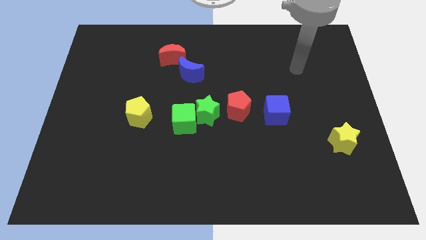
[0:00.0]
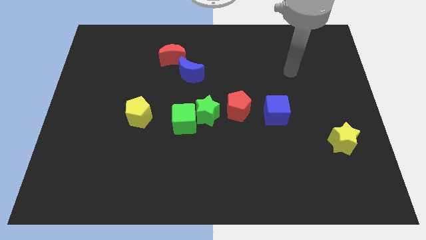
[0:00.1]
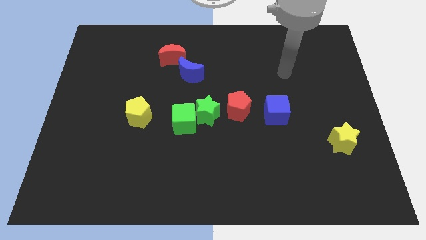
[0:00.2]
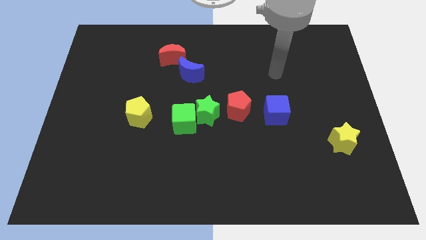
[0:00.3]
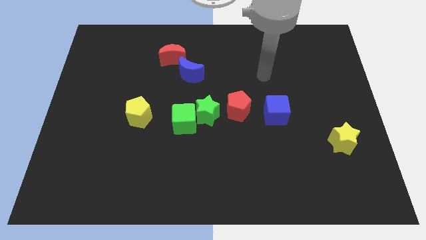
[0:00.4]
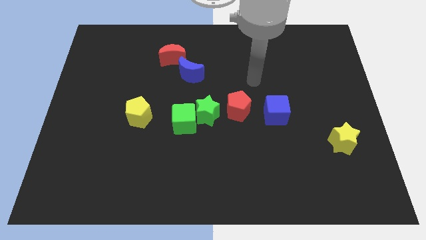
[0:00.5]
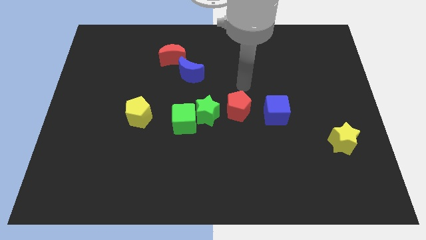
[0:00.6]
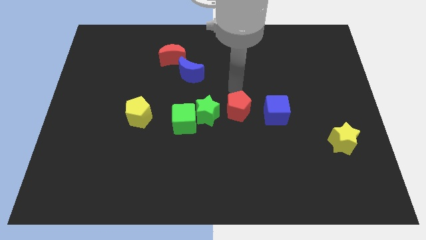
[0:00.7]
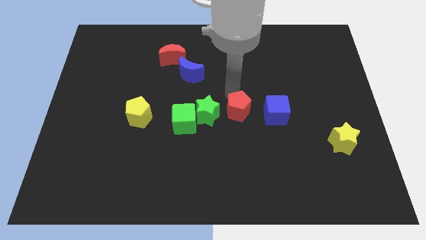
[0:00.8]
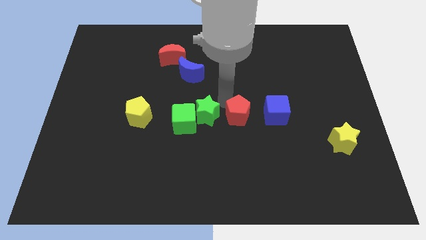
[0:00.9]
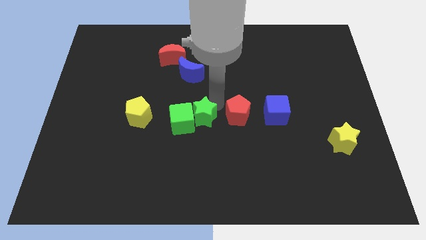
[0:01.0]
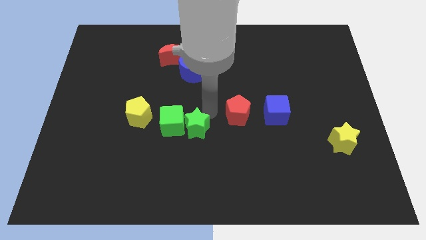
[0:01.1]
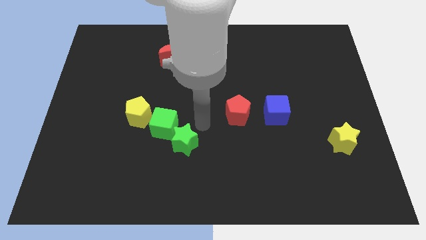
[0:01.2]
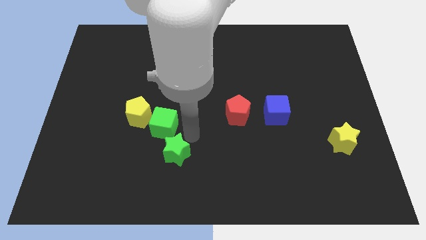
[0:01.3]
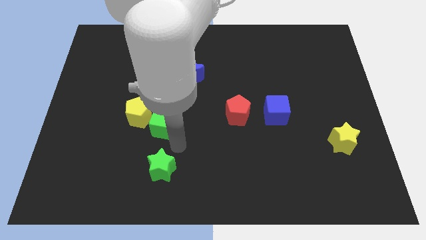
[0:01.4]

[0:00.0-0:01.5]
separate the green cube from the green star

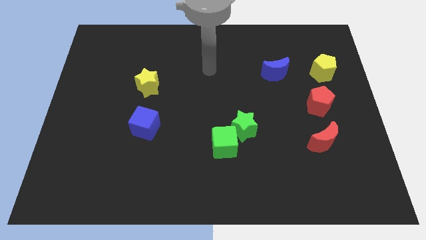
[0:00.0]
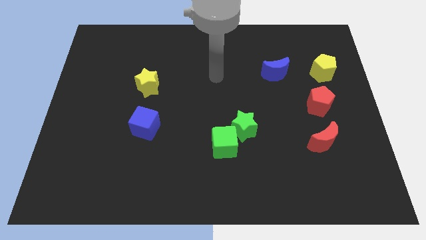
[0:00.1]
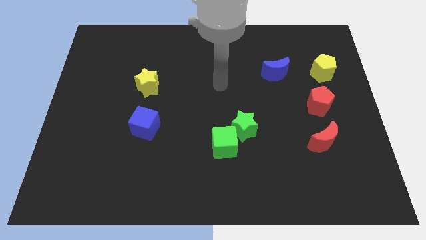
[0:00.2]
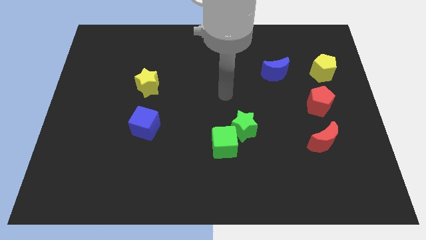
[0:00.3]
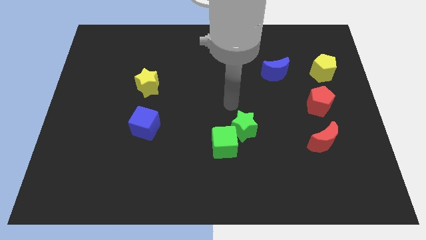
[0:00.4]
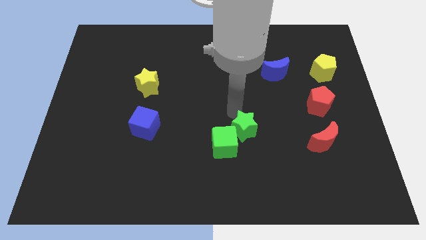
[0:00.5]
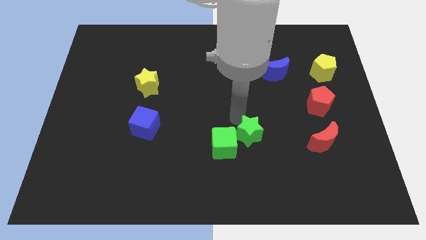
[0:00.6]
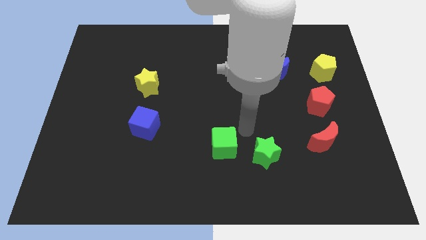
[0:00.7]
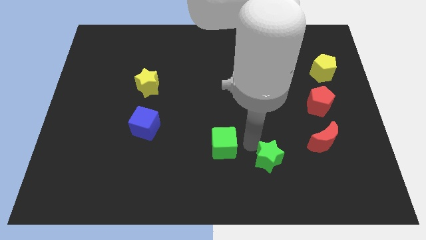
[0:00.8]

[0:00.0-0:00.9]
pull the green cube apart from the green star

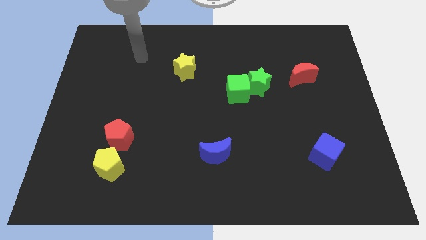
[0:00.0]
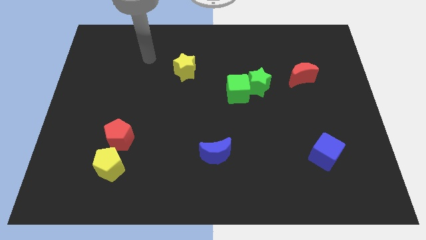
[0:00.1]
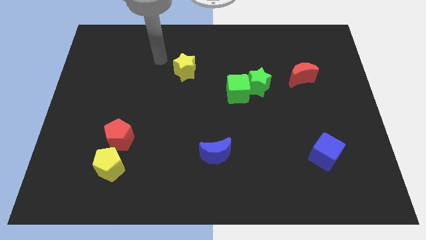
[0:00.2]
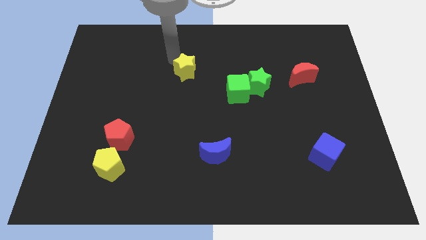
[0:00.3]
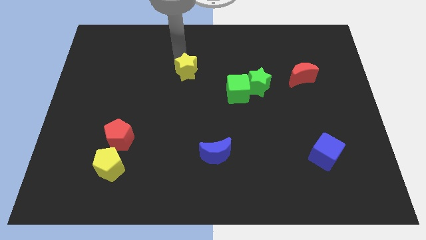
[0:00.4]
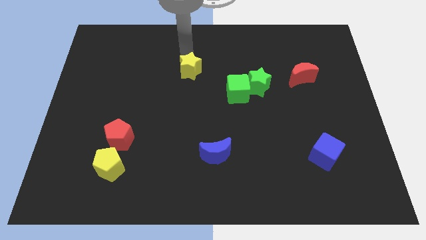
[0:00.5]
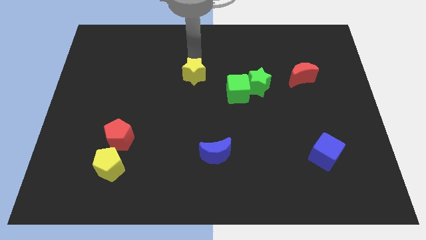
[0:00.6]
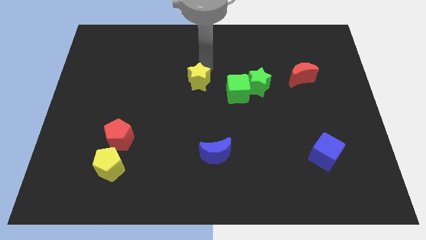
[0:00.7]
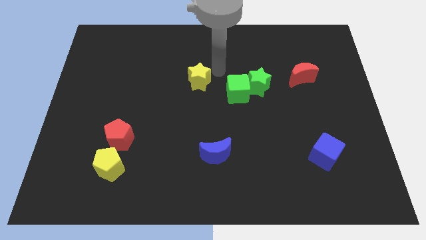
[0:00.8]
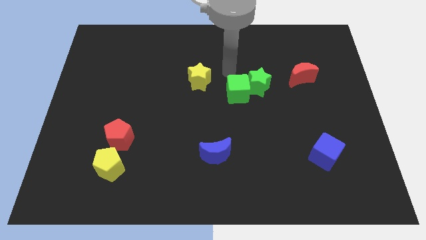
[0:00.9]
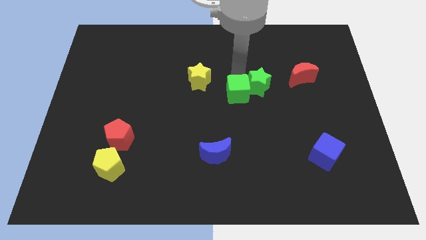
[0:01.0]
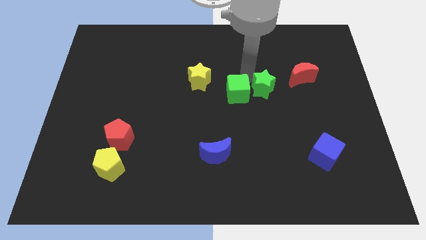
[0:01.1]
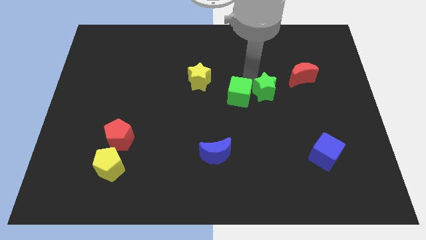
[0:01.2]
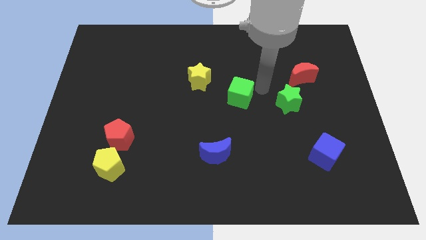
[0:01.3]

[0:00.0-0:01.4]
move the green cube away from the green star

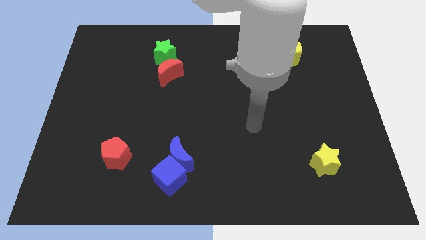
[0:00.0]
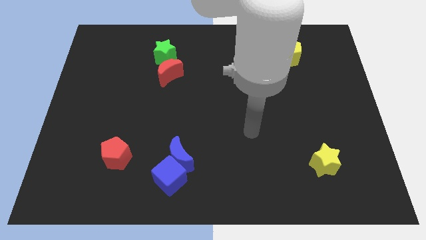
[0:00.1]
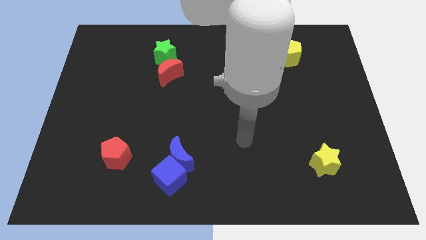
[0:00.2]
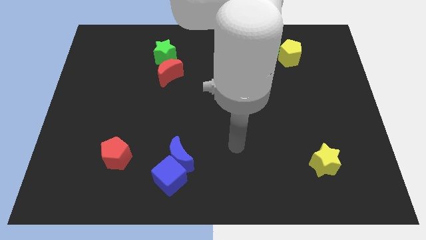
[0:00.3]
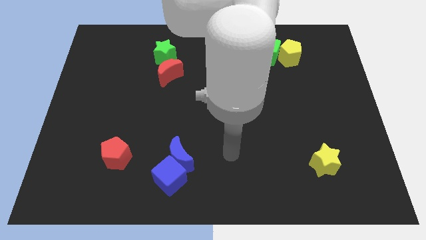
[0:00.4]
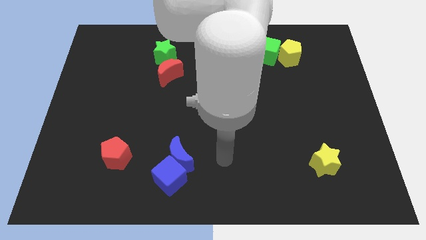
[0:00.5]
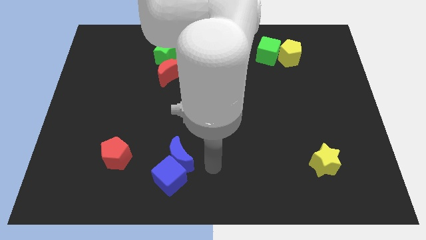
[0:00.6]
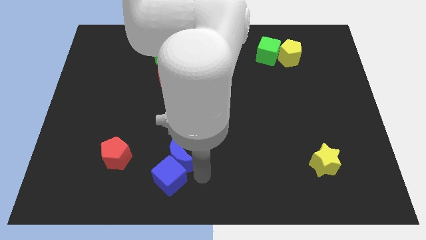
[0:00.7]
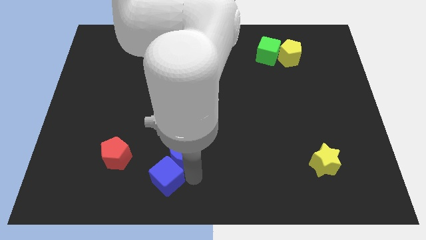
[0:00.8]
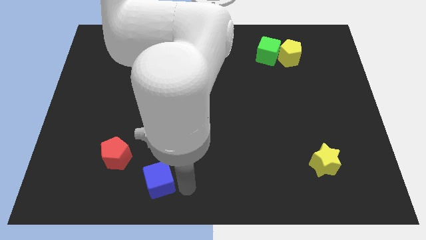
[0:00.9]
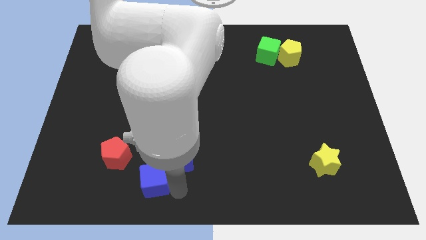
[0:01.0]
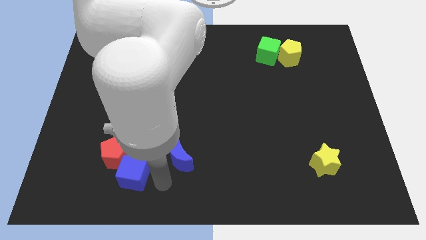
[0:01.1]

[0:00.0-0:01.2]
pull the blue moon apart from the blue cube

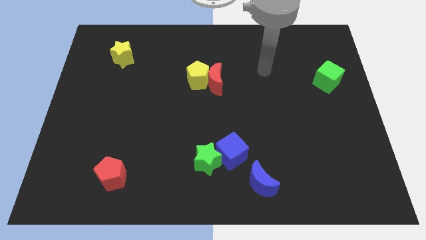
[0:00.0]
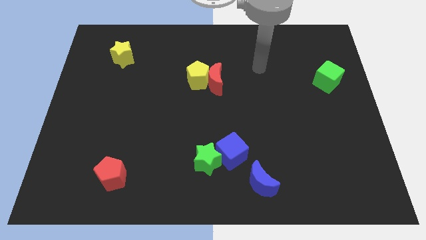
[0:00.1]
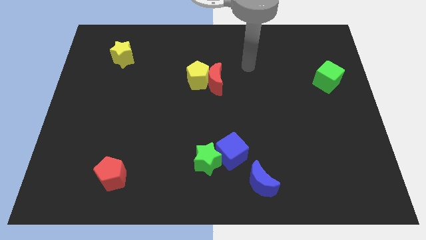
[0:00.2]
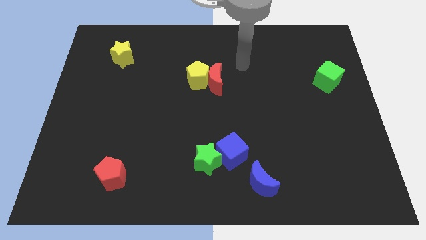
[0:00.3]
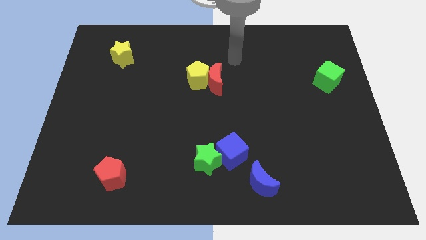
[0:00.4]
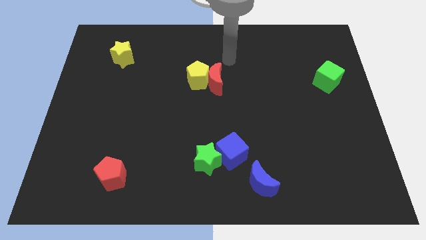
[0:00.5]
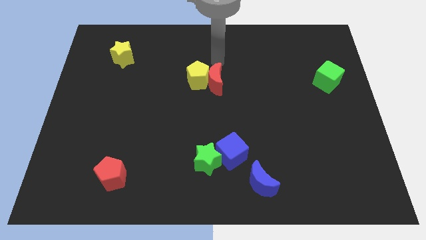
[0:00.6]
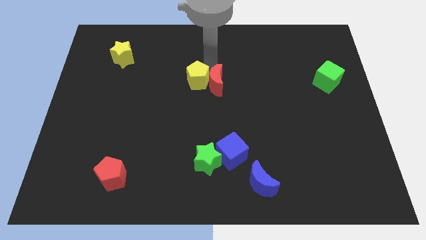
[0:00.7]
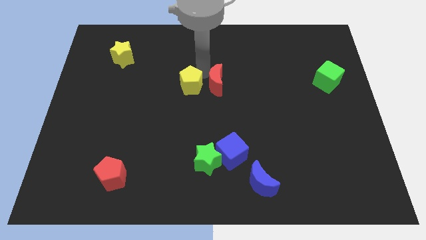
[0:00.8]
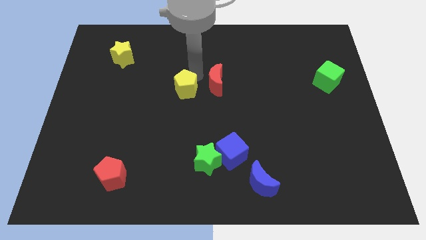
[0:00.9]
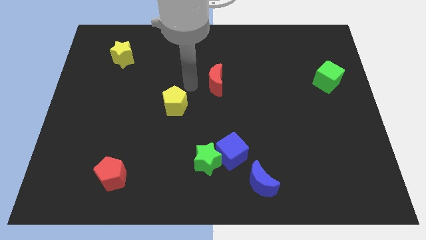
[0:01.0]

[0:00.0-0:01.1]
separate the red moon from the yellow pentagon

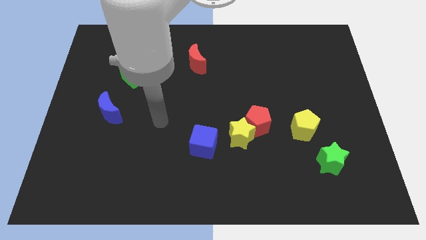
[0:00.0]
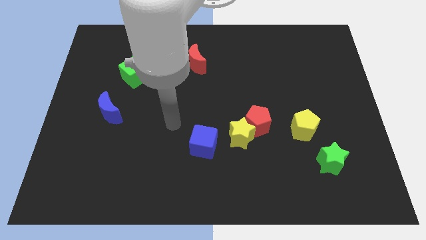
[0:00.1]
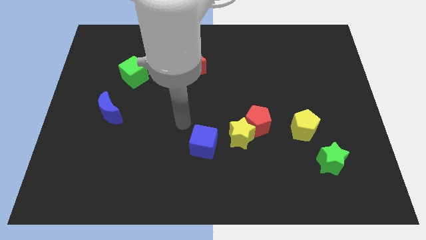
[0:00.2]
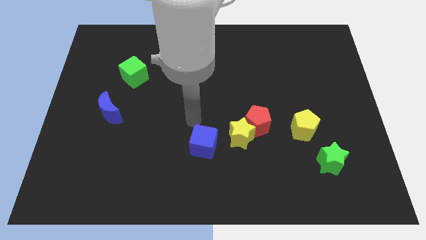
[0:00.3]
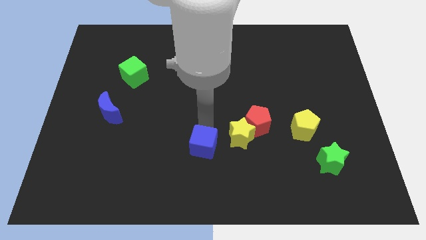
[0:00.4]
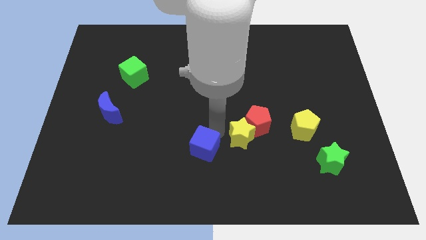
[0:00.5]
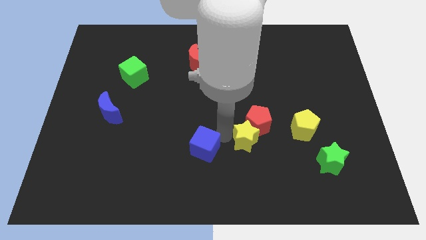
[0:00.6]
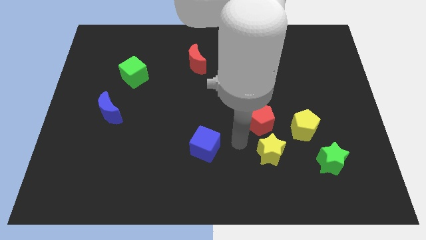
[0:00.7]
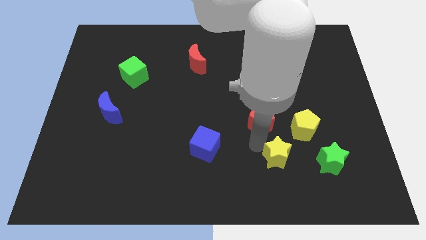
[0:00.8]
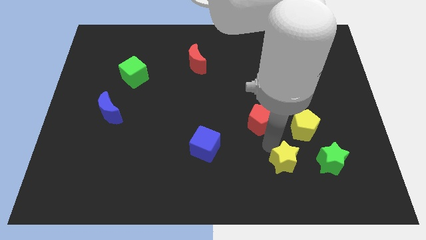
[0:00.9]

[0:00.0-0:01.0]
pull the red pentagon apart from the yellow star

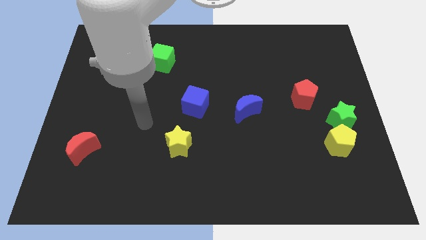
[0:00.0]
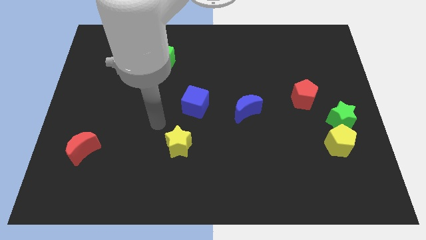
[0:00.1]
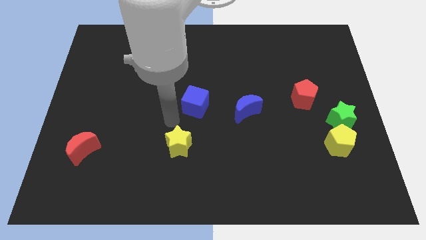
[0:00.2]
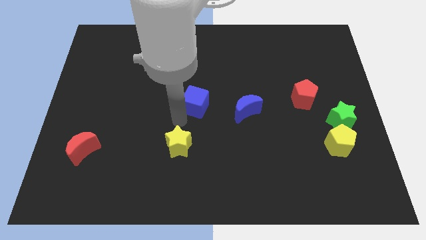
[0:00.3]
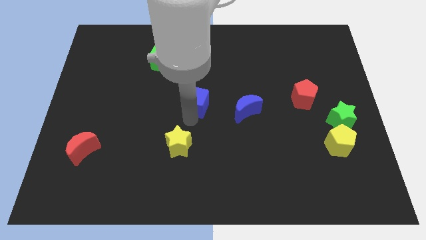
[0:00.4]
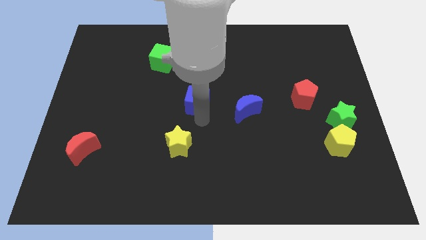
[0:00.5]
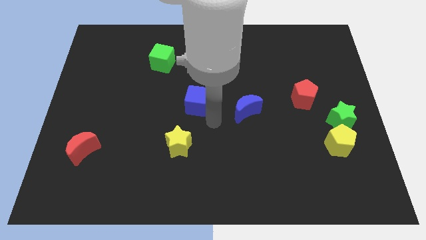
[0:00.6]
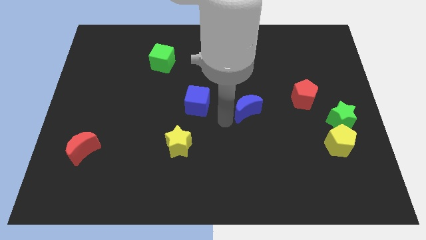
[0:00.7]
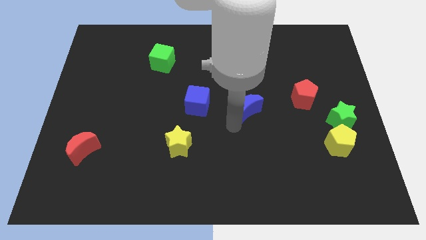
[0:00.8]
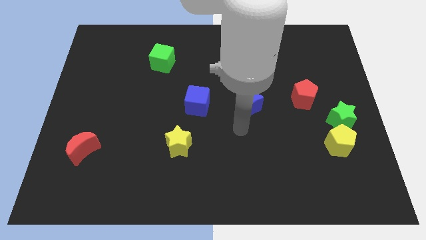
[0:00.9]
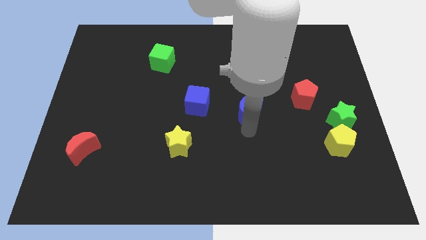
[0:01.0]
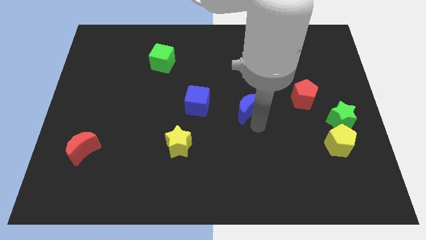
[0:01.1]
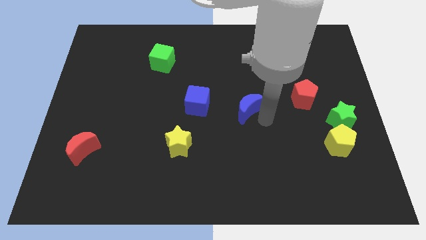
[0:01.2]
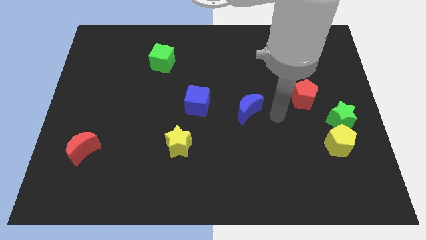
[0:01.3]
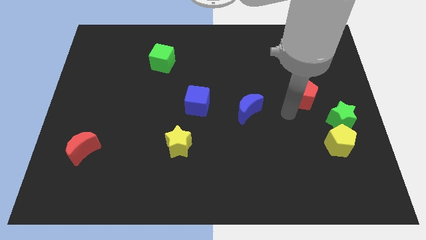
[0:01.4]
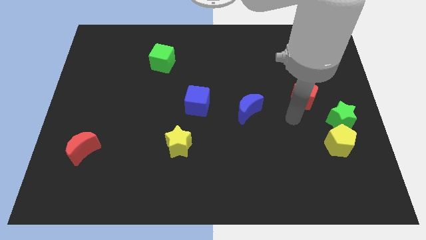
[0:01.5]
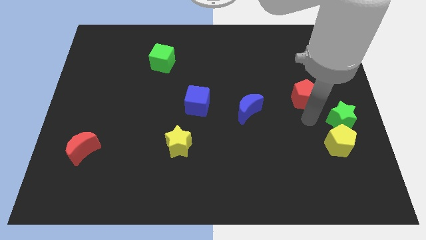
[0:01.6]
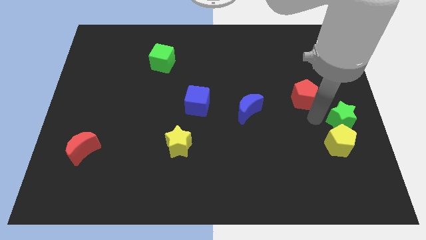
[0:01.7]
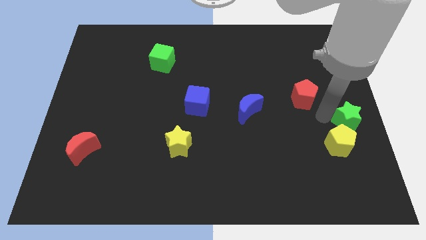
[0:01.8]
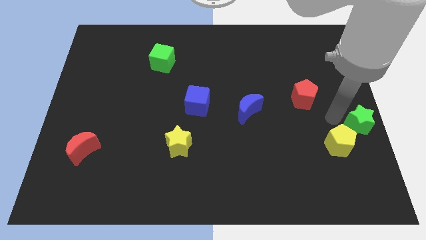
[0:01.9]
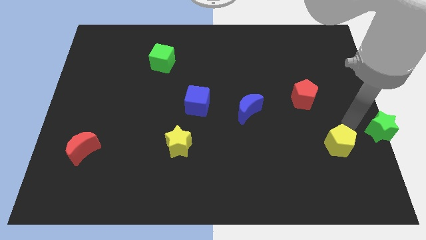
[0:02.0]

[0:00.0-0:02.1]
move the yellow pentagon away from the green star
